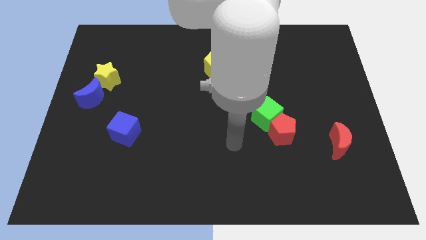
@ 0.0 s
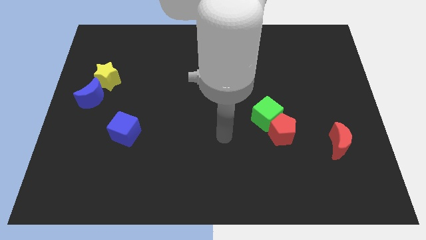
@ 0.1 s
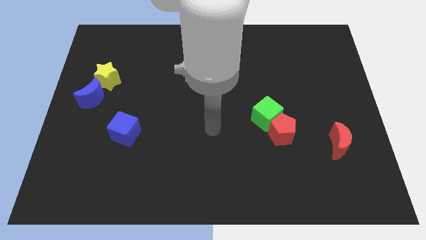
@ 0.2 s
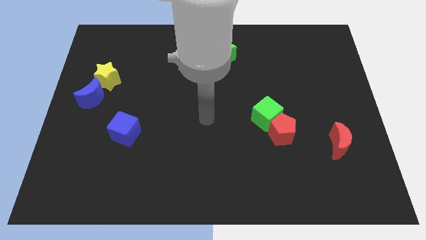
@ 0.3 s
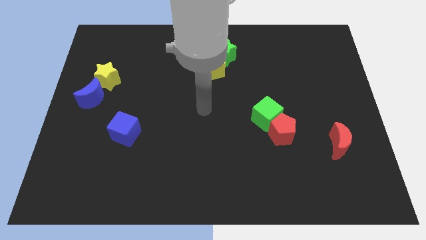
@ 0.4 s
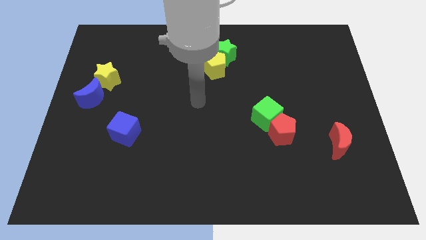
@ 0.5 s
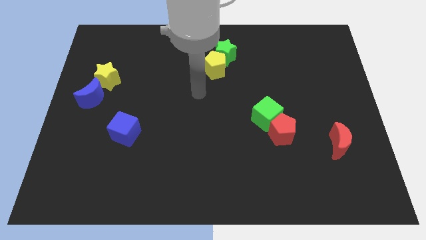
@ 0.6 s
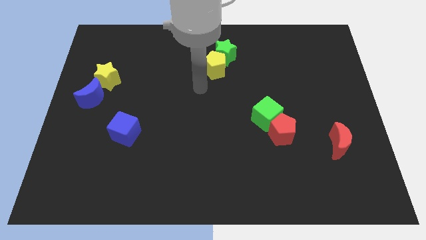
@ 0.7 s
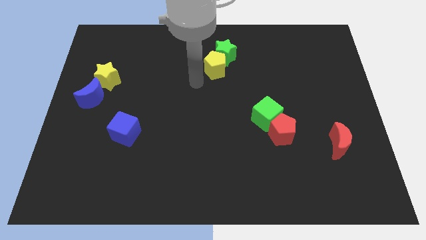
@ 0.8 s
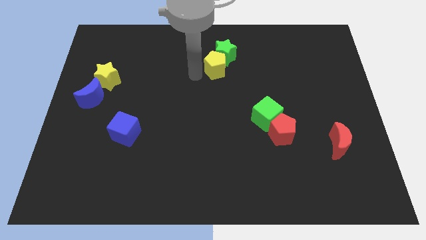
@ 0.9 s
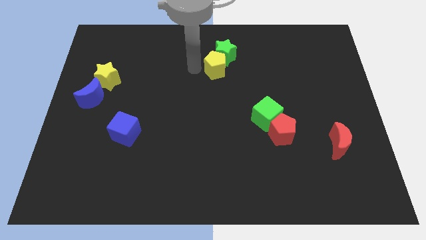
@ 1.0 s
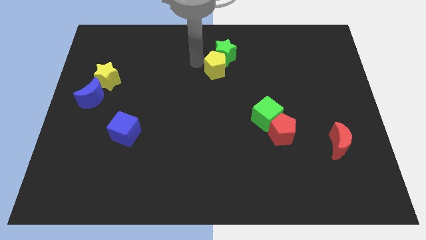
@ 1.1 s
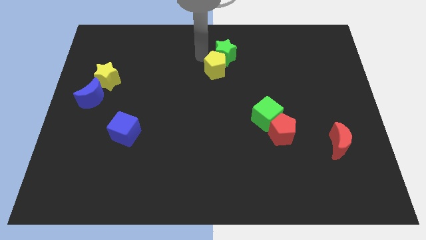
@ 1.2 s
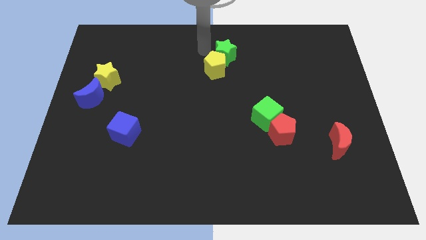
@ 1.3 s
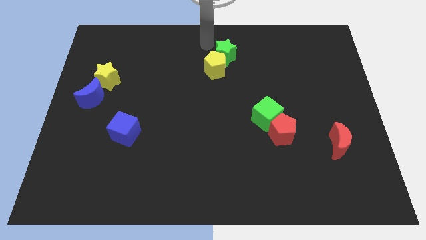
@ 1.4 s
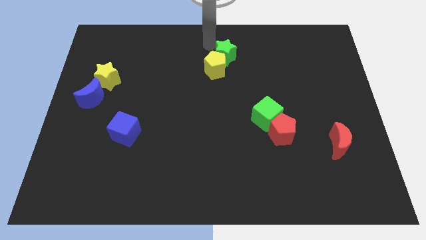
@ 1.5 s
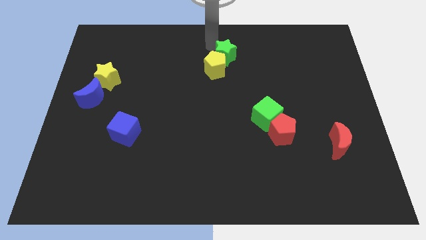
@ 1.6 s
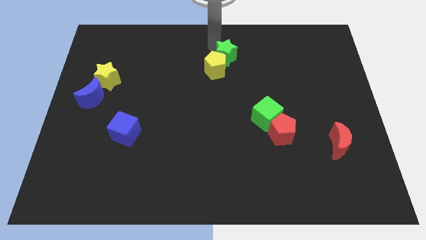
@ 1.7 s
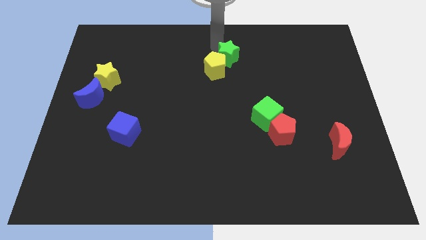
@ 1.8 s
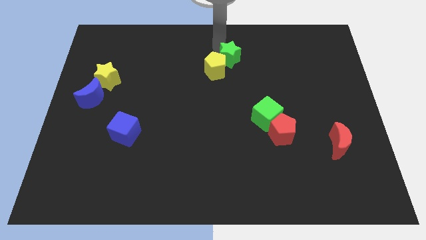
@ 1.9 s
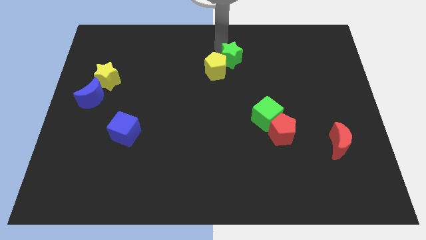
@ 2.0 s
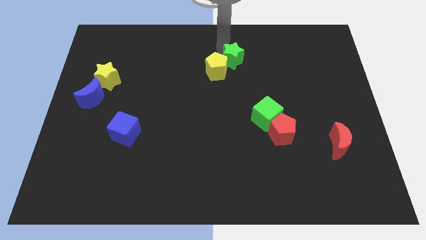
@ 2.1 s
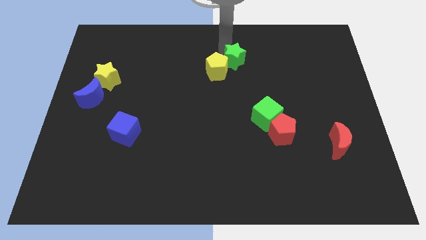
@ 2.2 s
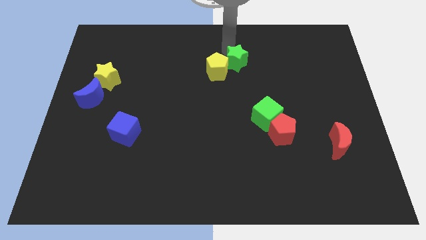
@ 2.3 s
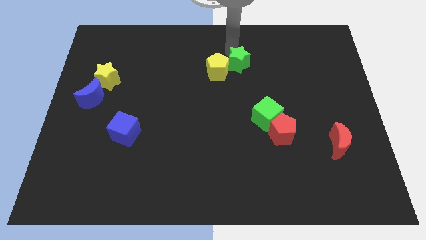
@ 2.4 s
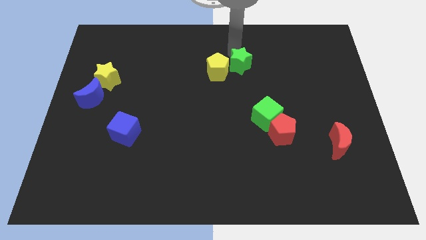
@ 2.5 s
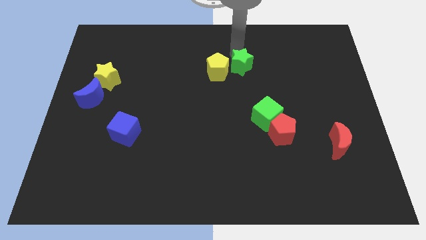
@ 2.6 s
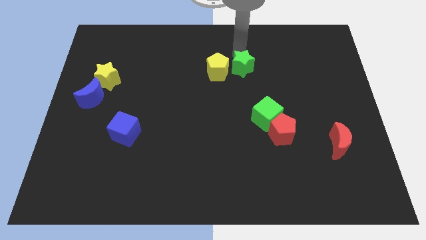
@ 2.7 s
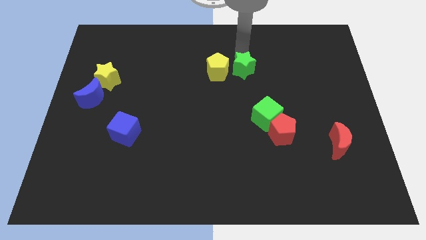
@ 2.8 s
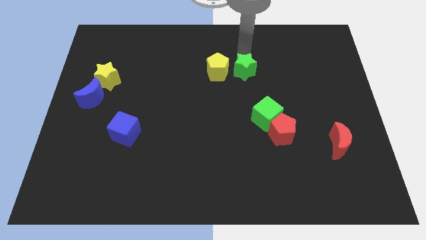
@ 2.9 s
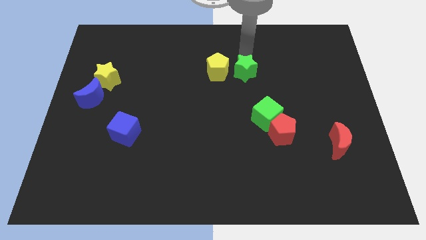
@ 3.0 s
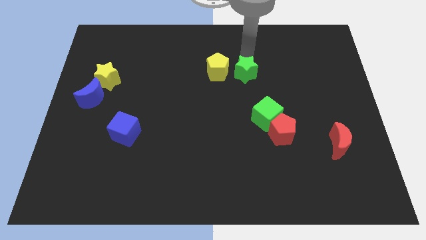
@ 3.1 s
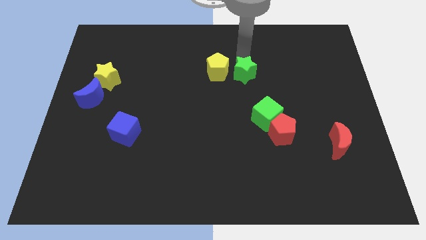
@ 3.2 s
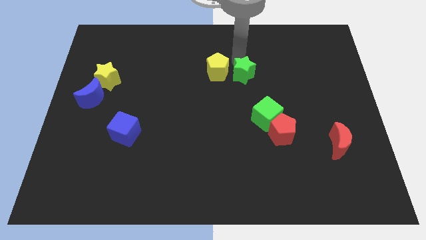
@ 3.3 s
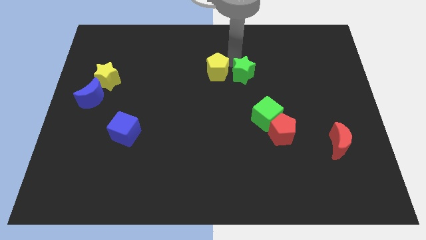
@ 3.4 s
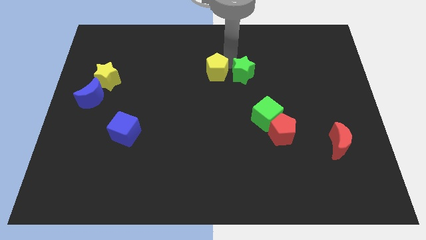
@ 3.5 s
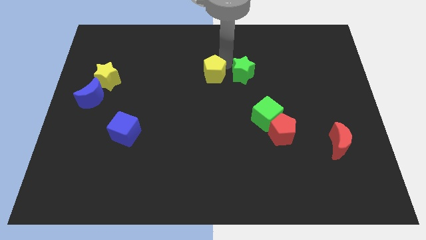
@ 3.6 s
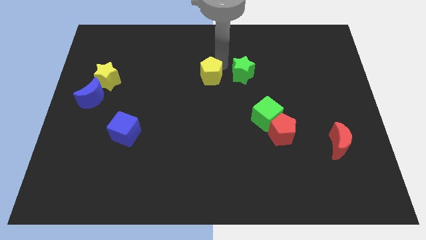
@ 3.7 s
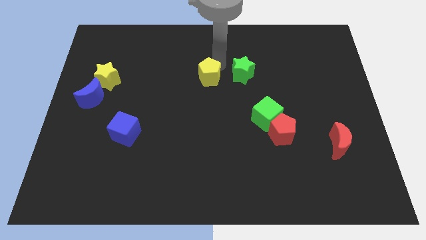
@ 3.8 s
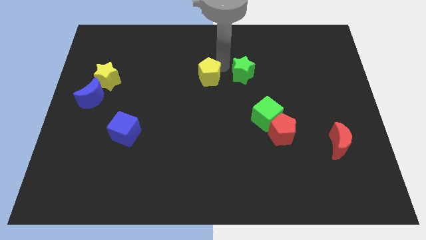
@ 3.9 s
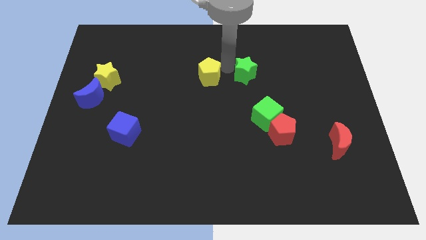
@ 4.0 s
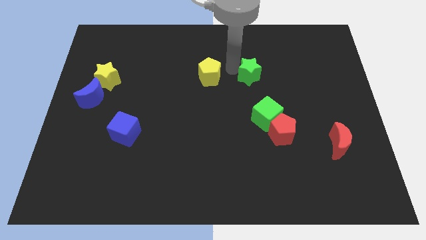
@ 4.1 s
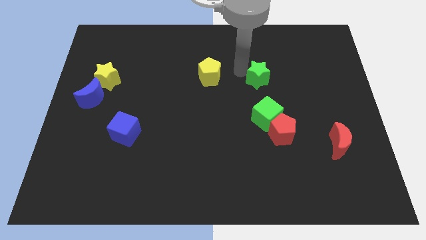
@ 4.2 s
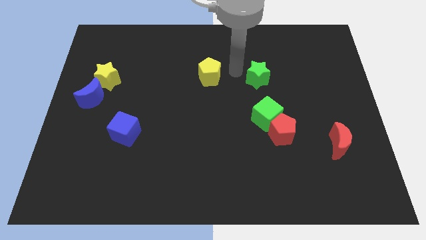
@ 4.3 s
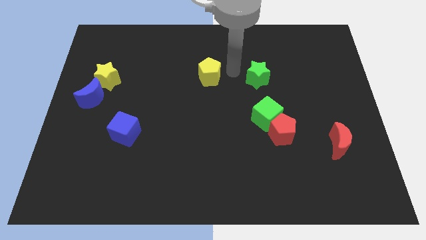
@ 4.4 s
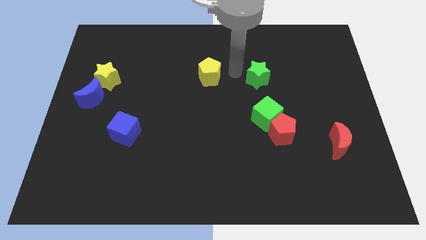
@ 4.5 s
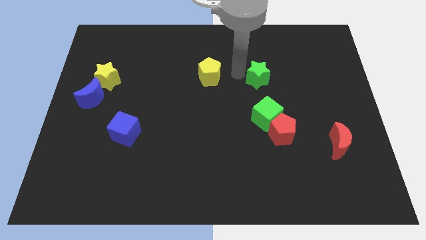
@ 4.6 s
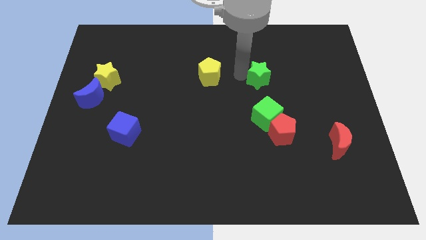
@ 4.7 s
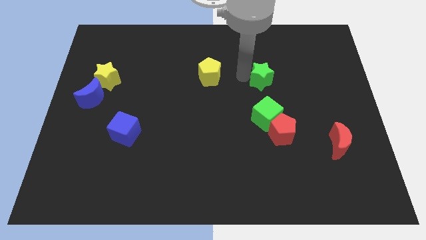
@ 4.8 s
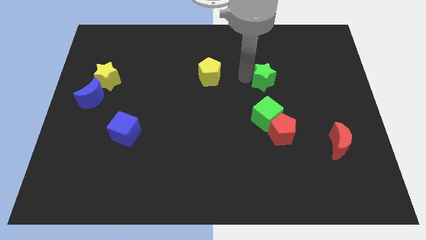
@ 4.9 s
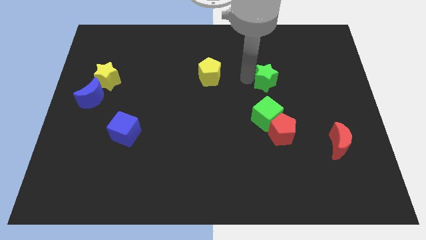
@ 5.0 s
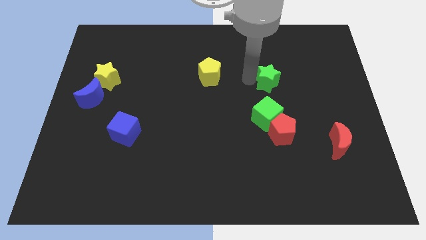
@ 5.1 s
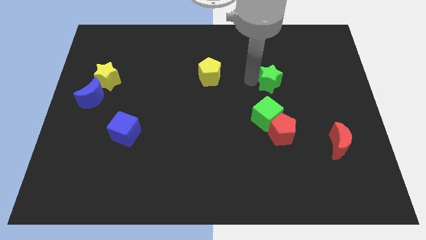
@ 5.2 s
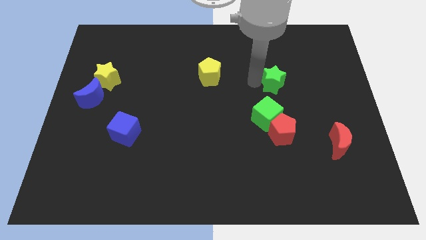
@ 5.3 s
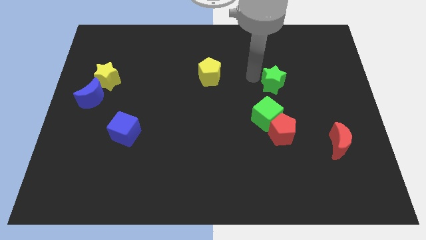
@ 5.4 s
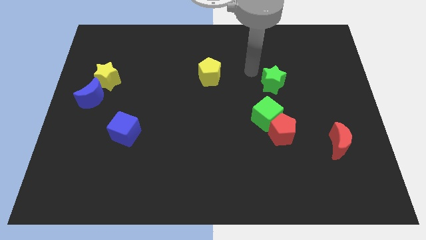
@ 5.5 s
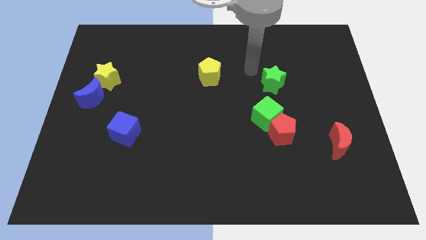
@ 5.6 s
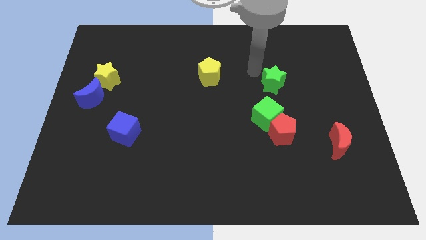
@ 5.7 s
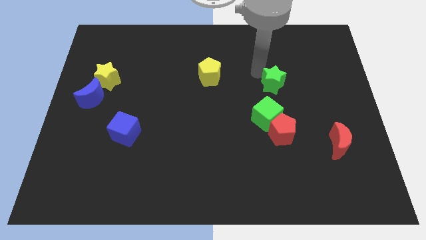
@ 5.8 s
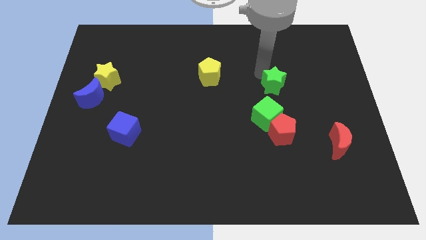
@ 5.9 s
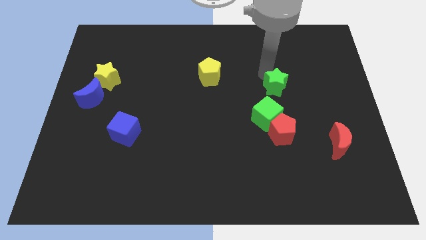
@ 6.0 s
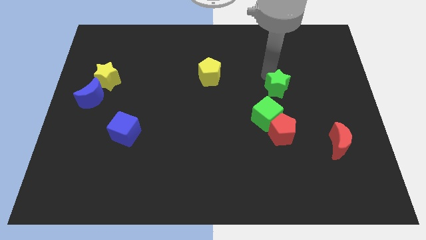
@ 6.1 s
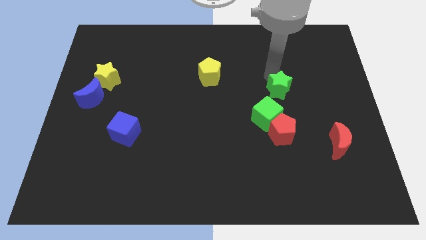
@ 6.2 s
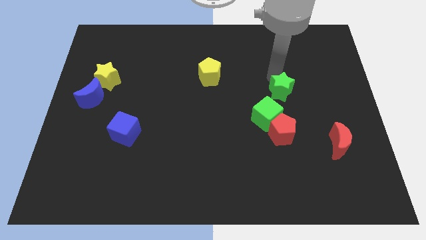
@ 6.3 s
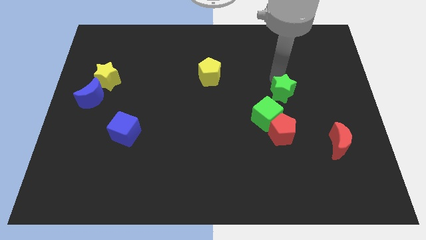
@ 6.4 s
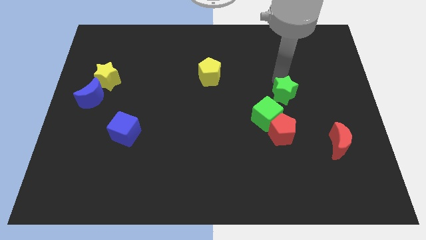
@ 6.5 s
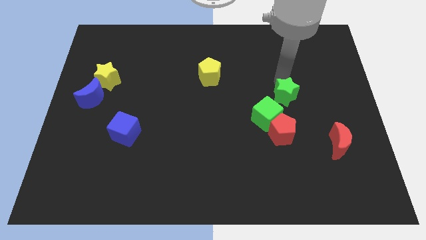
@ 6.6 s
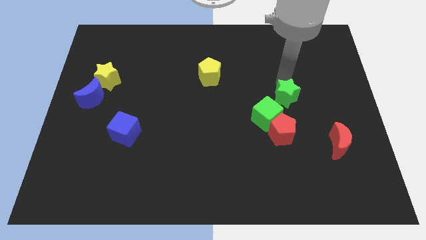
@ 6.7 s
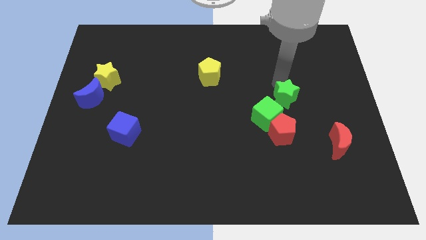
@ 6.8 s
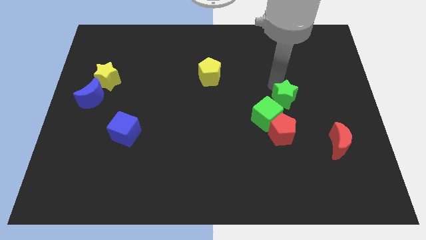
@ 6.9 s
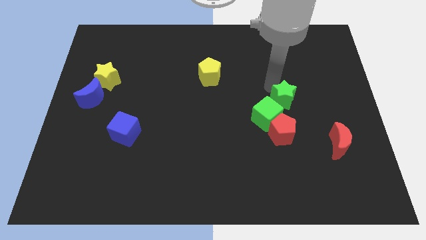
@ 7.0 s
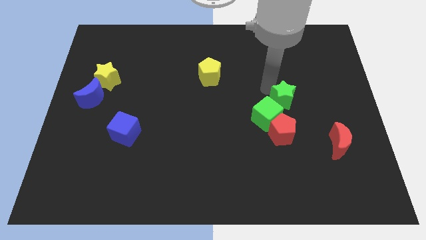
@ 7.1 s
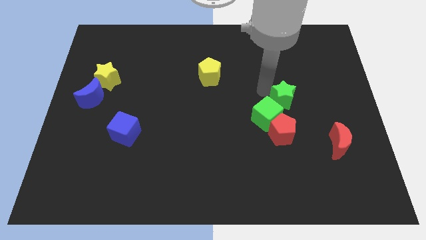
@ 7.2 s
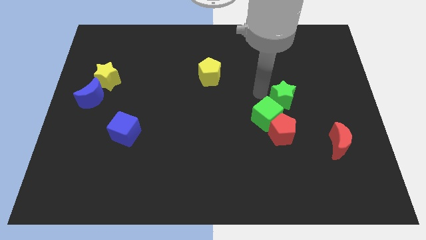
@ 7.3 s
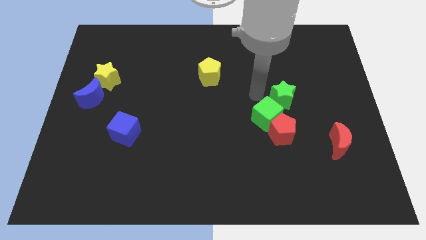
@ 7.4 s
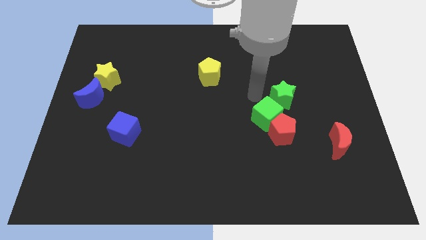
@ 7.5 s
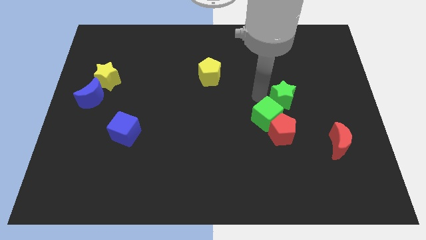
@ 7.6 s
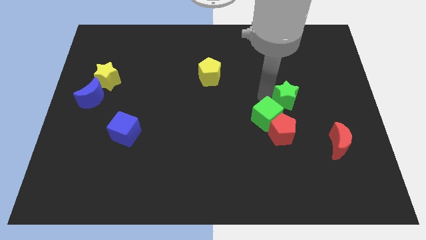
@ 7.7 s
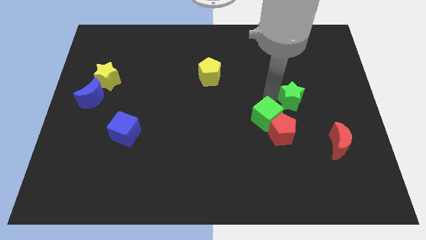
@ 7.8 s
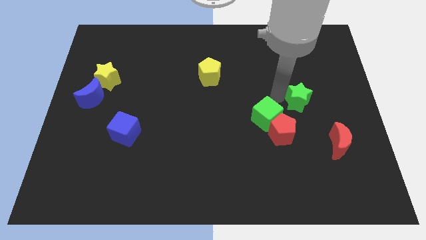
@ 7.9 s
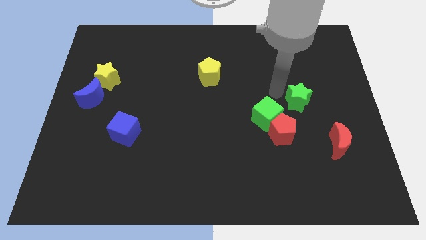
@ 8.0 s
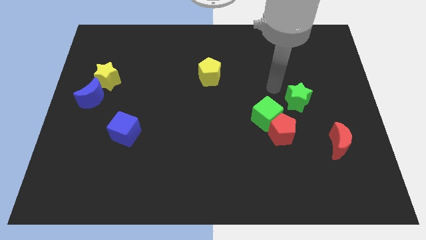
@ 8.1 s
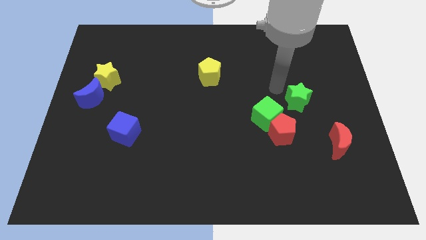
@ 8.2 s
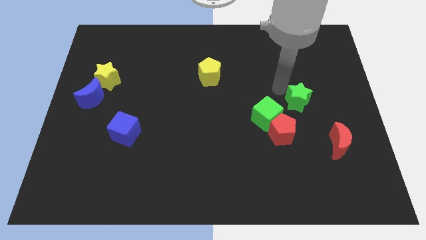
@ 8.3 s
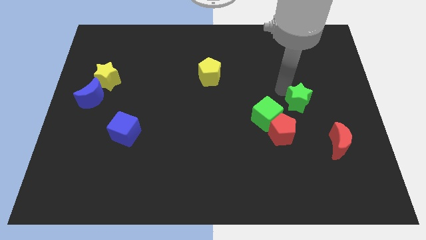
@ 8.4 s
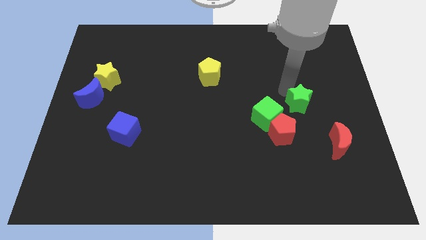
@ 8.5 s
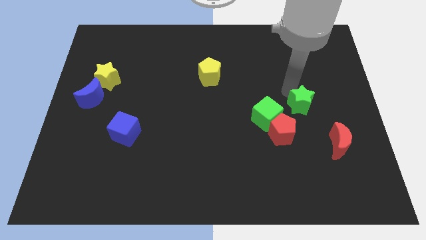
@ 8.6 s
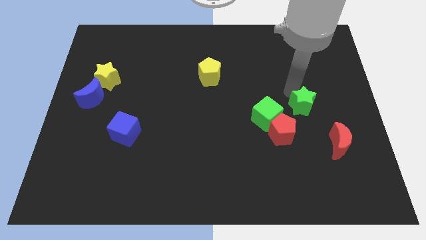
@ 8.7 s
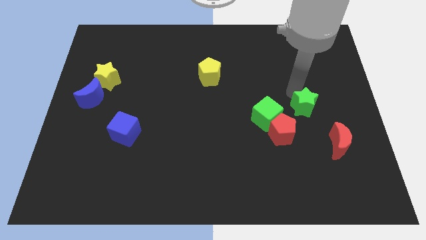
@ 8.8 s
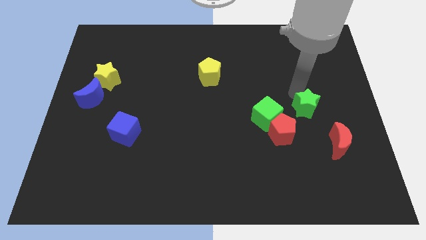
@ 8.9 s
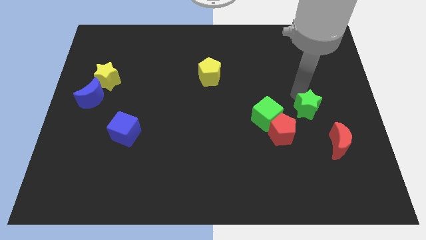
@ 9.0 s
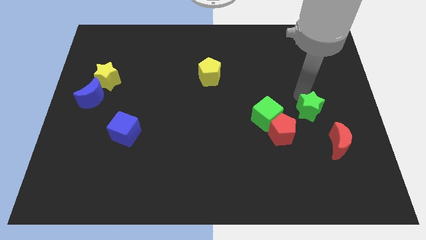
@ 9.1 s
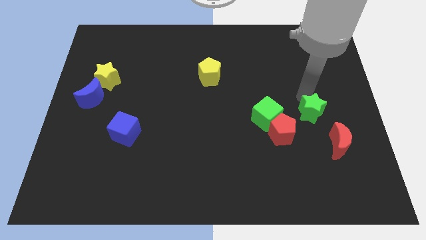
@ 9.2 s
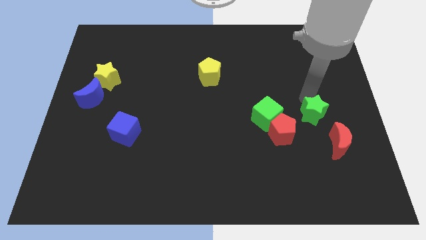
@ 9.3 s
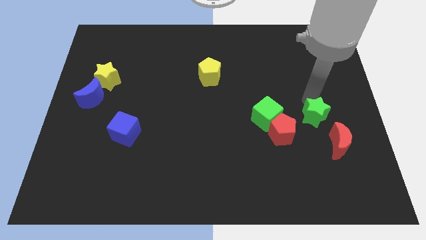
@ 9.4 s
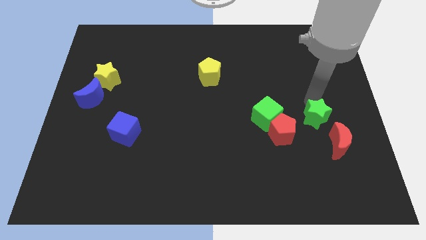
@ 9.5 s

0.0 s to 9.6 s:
slide the green star to the right side of the red pentagon
